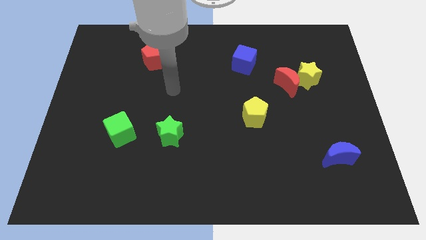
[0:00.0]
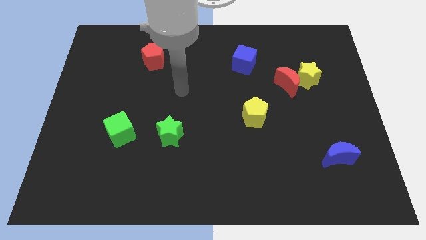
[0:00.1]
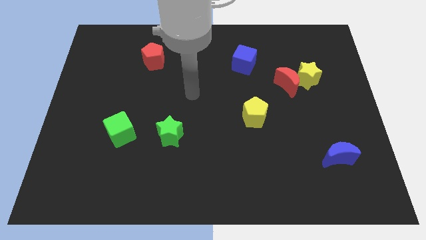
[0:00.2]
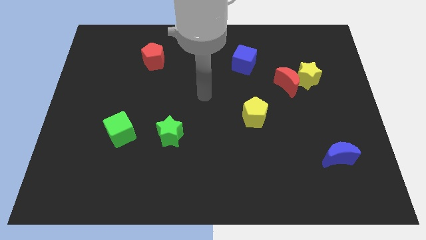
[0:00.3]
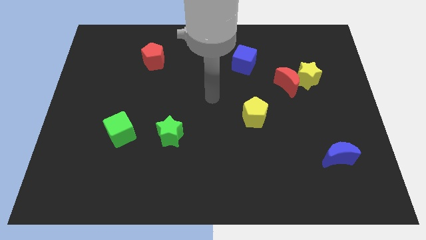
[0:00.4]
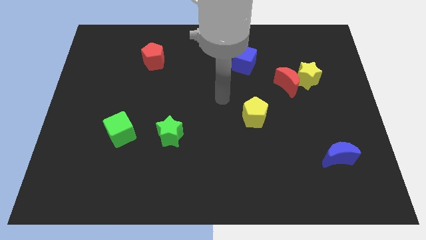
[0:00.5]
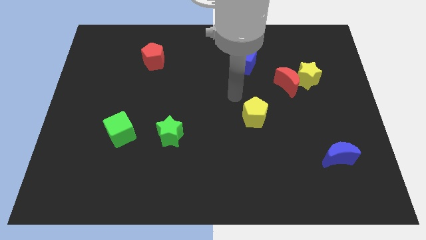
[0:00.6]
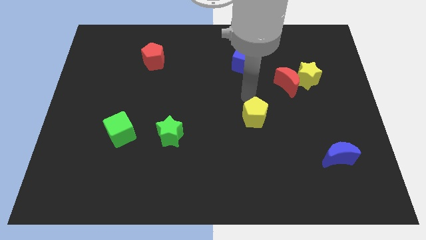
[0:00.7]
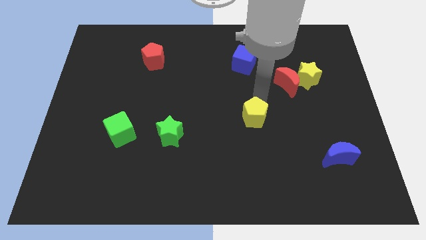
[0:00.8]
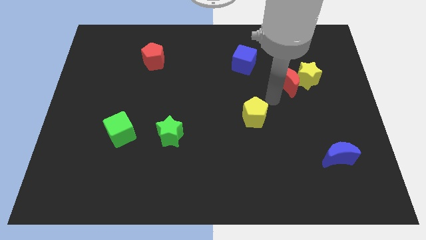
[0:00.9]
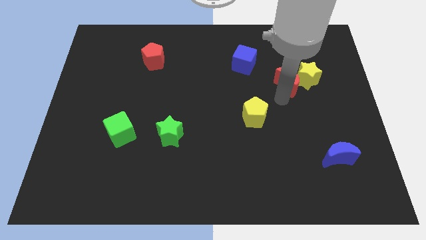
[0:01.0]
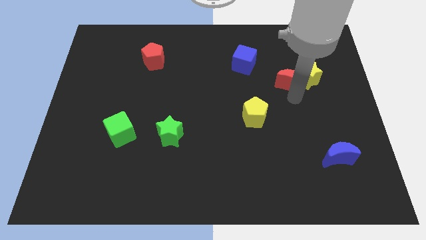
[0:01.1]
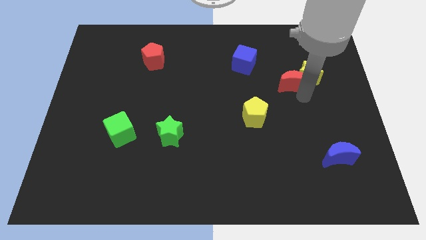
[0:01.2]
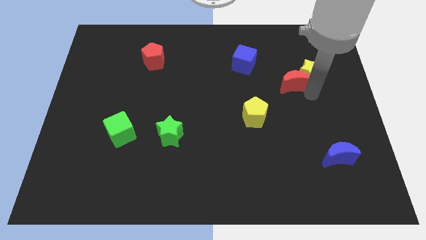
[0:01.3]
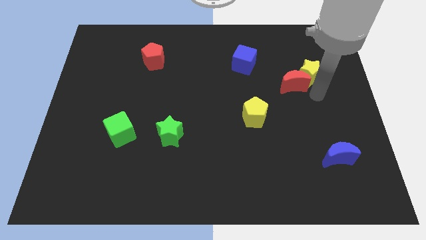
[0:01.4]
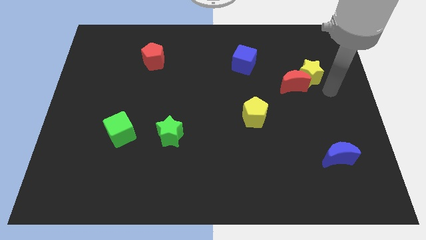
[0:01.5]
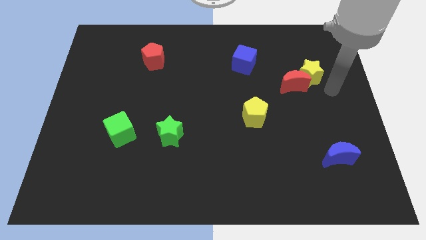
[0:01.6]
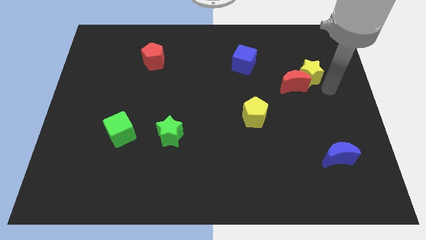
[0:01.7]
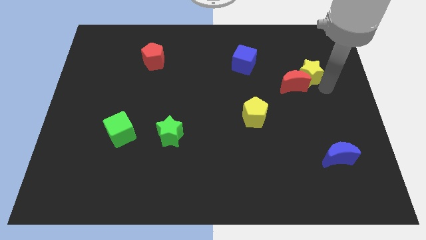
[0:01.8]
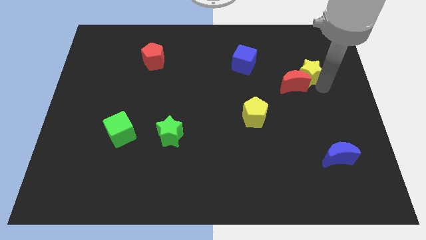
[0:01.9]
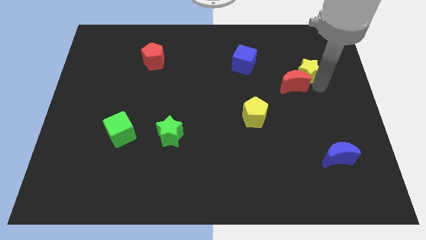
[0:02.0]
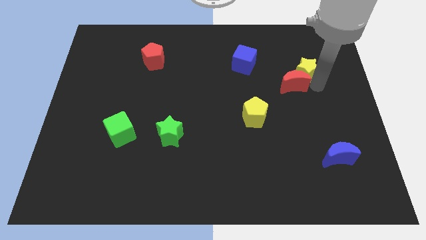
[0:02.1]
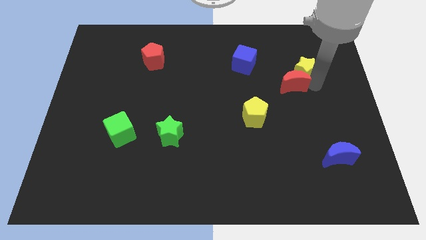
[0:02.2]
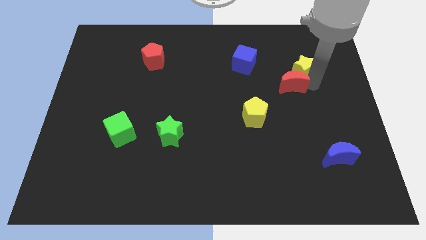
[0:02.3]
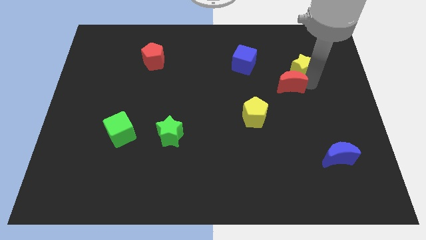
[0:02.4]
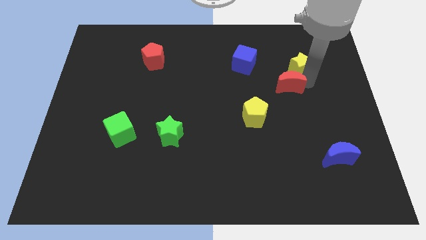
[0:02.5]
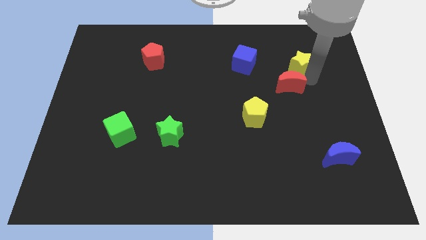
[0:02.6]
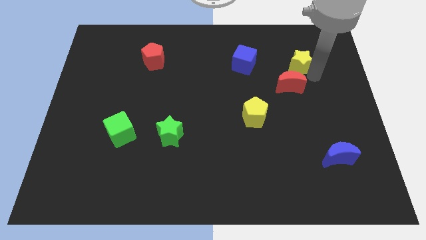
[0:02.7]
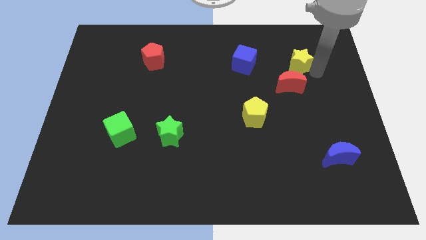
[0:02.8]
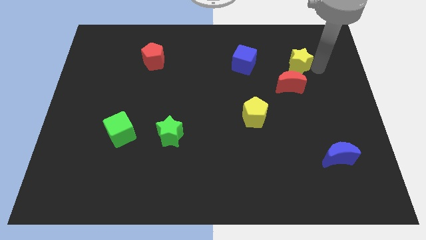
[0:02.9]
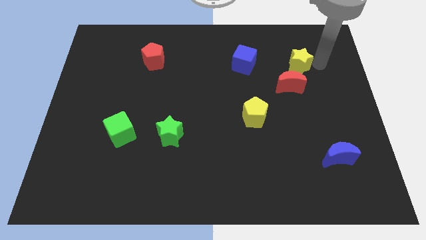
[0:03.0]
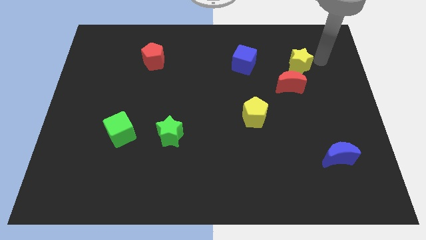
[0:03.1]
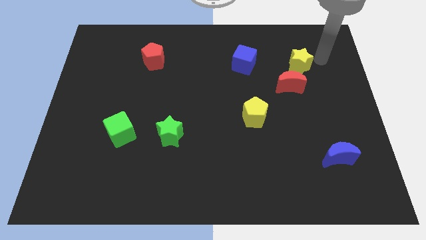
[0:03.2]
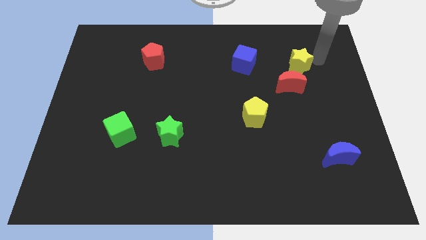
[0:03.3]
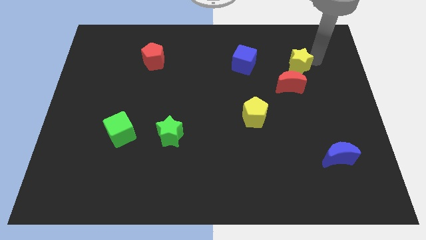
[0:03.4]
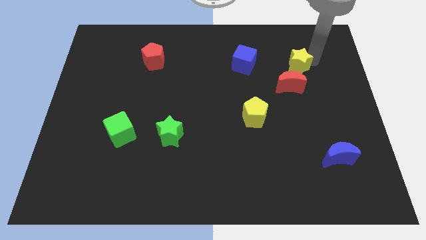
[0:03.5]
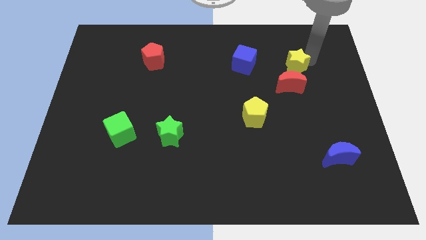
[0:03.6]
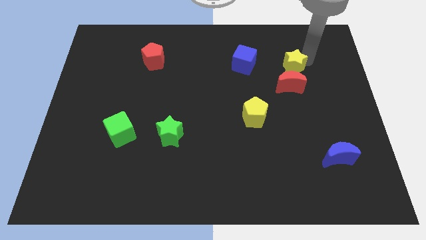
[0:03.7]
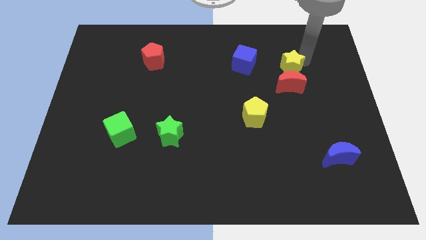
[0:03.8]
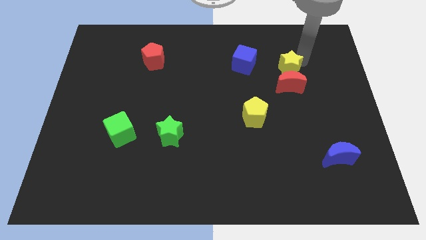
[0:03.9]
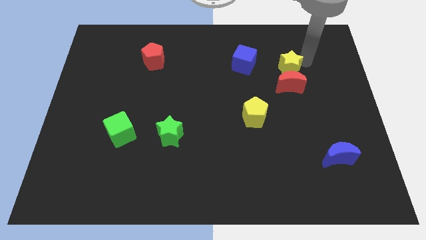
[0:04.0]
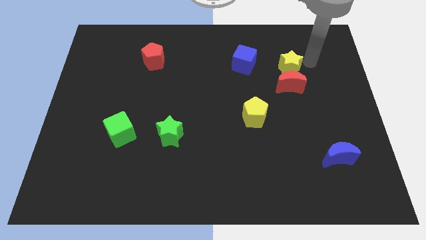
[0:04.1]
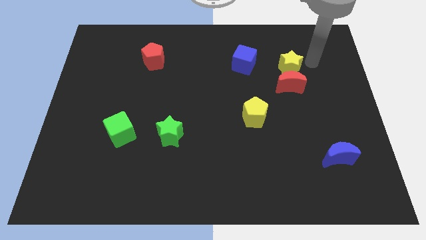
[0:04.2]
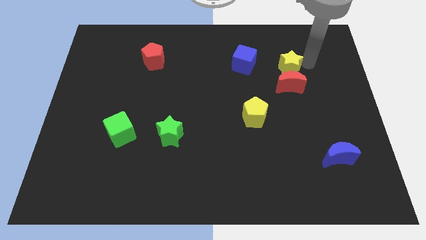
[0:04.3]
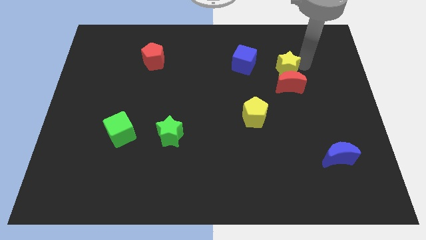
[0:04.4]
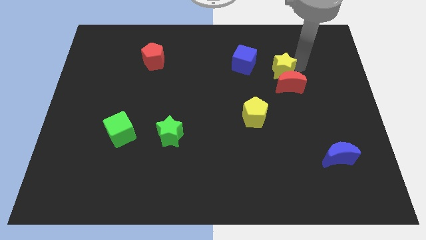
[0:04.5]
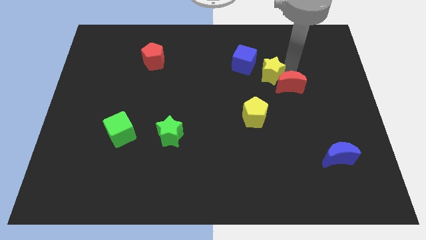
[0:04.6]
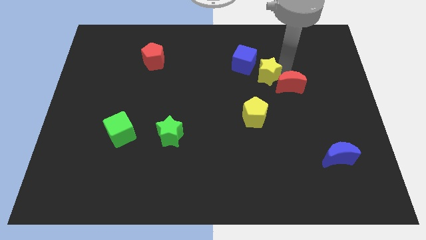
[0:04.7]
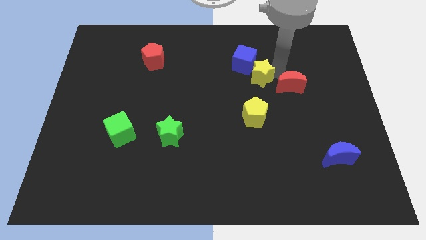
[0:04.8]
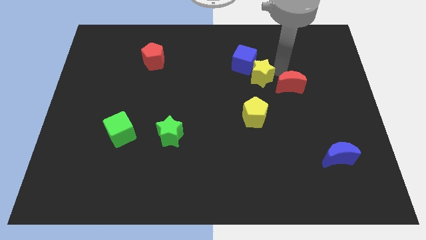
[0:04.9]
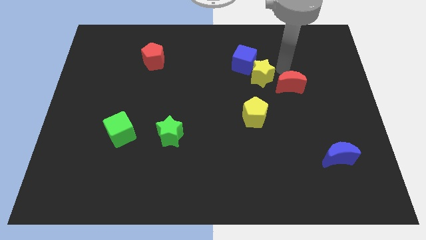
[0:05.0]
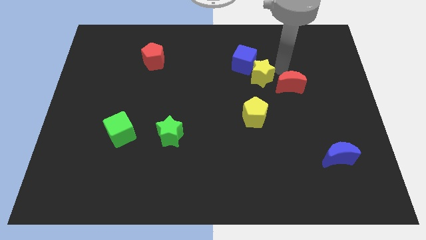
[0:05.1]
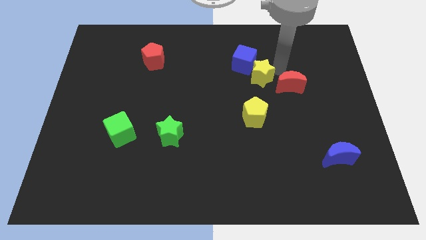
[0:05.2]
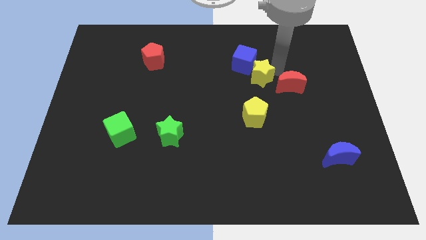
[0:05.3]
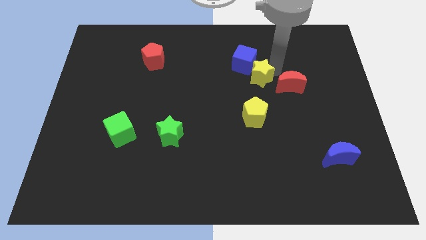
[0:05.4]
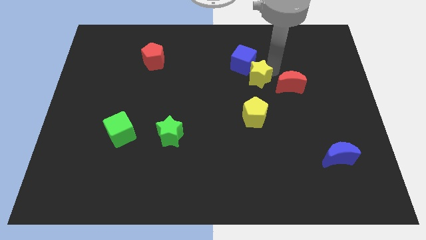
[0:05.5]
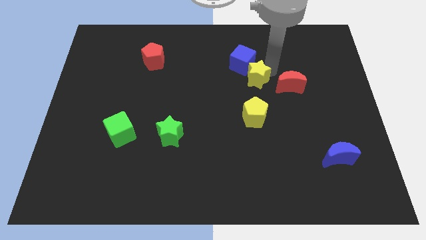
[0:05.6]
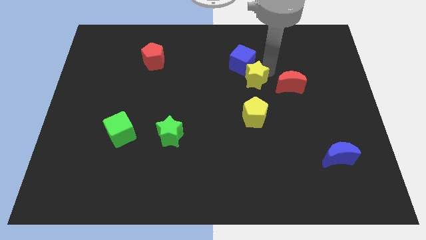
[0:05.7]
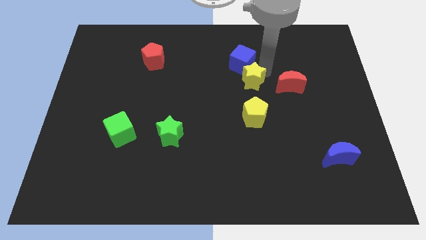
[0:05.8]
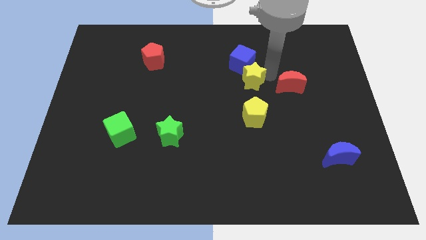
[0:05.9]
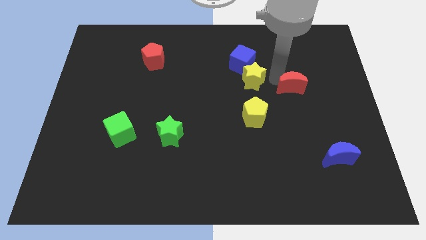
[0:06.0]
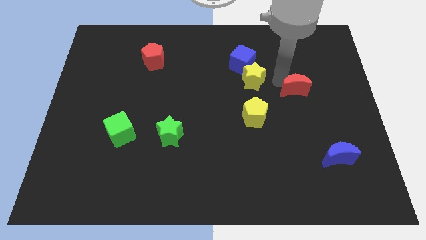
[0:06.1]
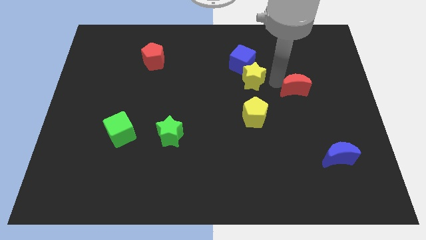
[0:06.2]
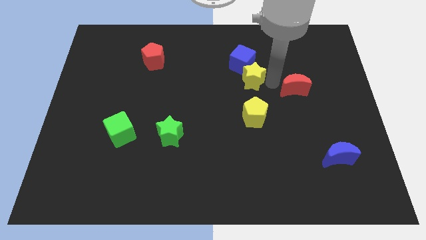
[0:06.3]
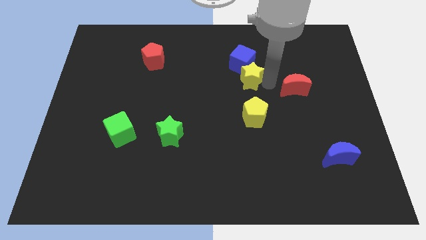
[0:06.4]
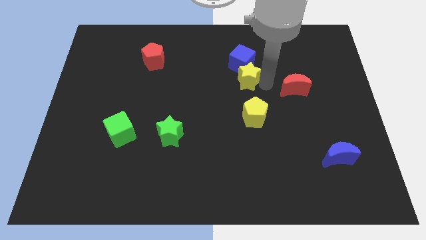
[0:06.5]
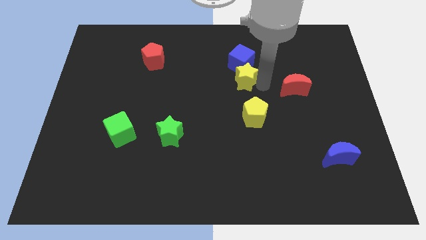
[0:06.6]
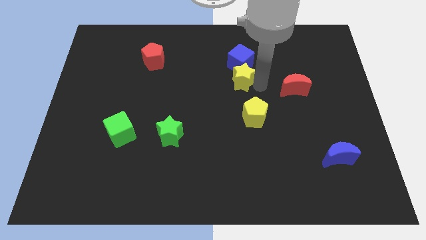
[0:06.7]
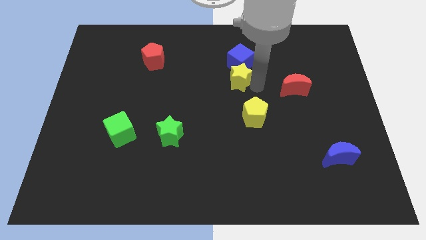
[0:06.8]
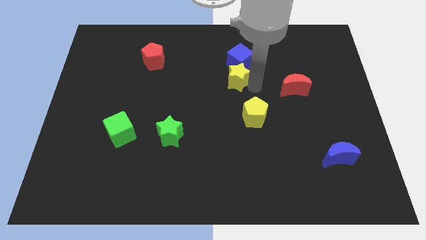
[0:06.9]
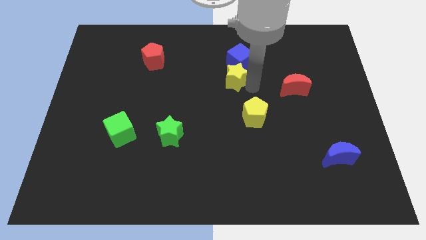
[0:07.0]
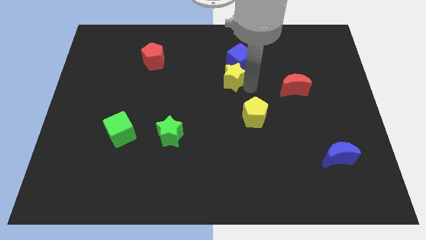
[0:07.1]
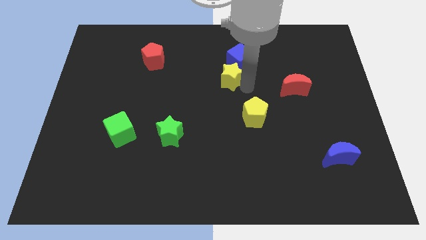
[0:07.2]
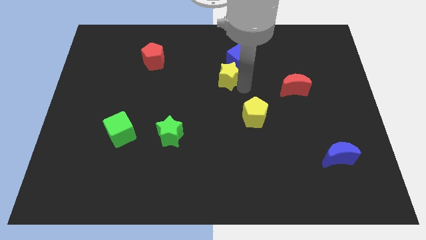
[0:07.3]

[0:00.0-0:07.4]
push the yellow star left

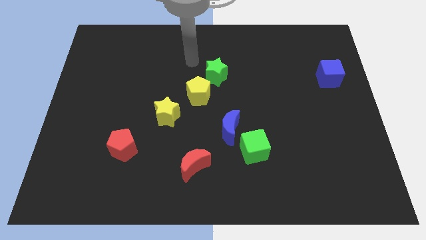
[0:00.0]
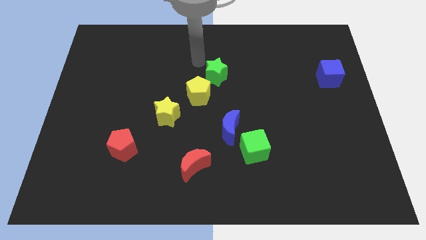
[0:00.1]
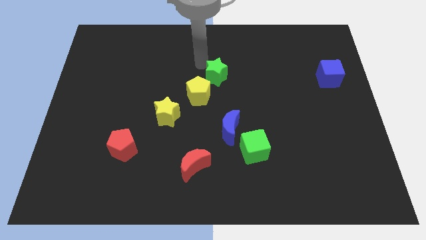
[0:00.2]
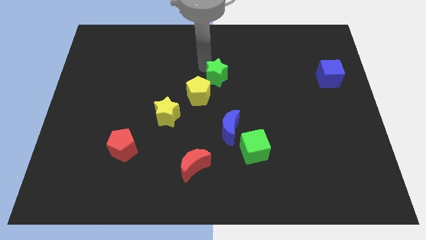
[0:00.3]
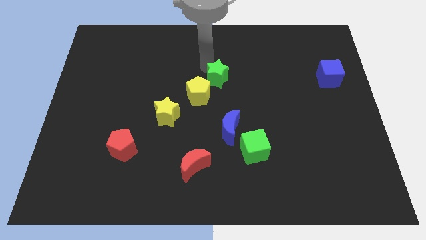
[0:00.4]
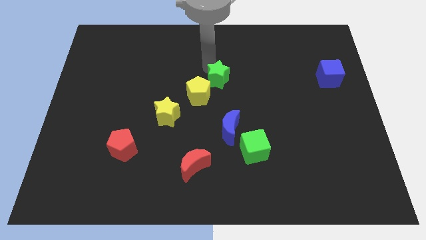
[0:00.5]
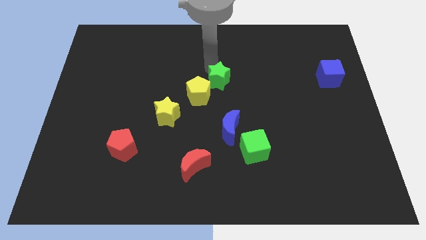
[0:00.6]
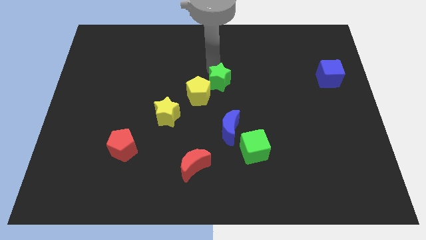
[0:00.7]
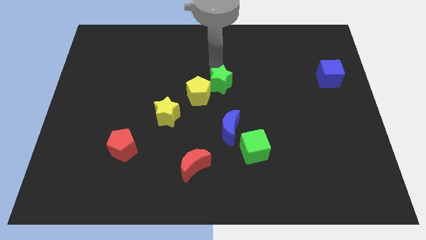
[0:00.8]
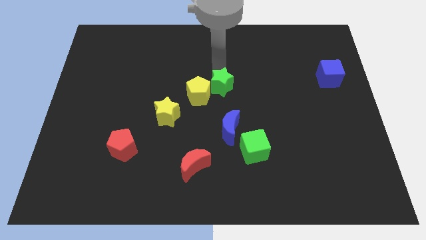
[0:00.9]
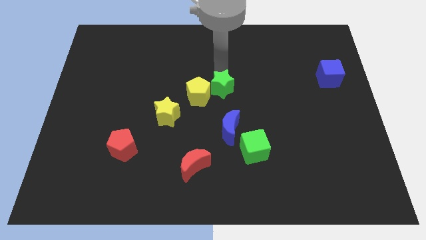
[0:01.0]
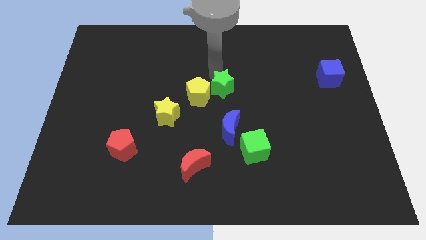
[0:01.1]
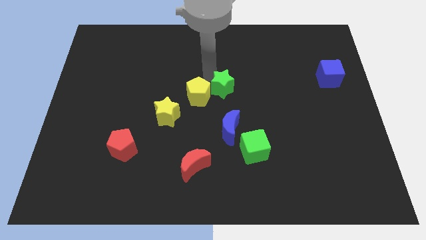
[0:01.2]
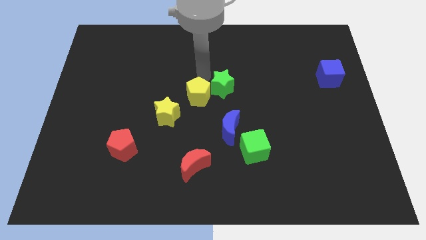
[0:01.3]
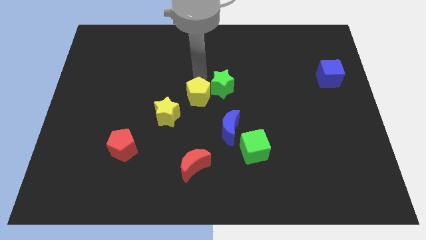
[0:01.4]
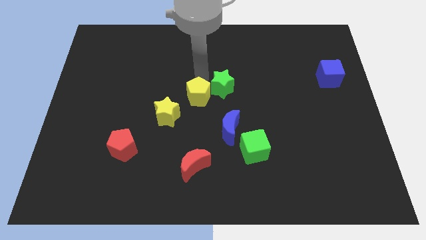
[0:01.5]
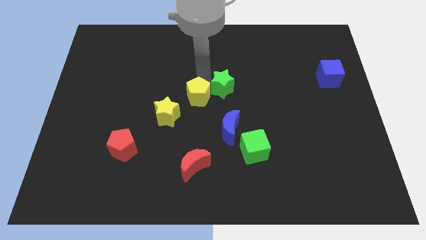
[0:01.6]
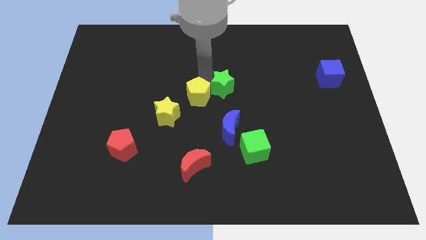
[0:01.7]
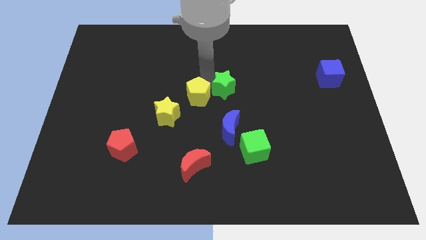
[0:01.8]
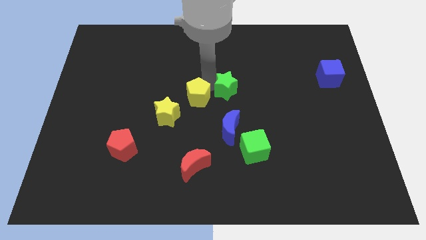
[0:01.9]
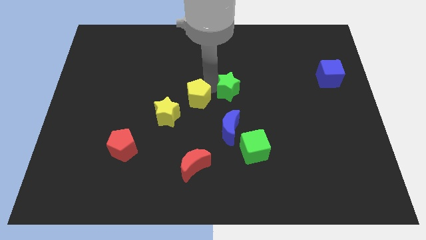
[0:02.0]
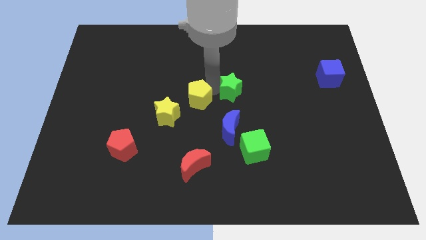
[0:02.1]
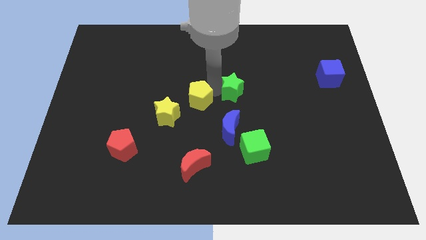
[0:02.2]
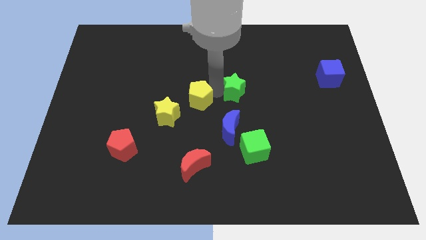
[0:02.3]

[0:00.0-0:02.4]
slightly move the green star down and then right
